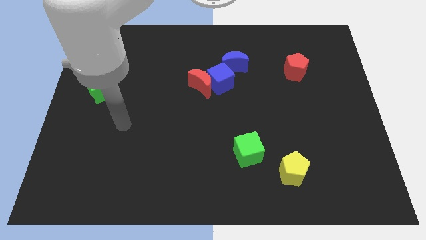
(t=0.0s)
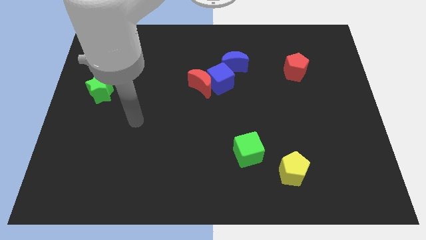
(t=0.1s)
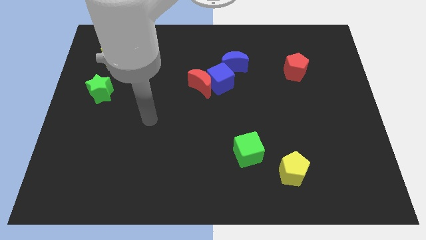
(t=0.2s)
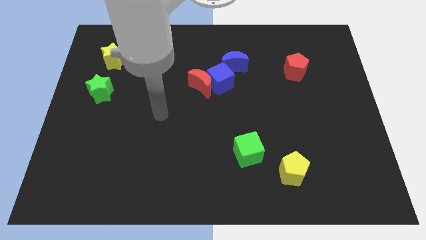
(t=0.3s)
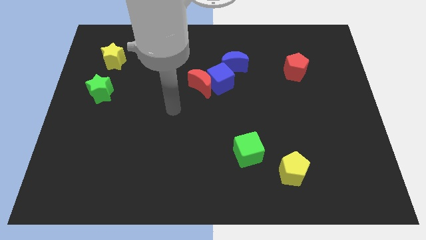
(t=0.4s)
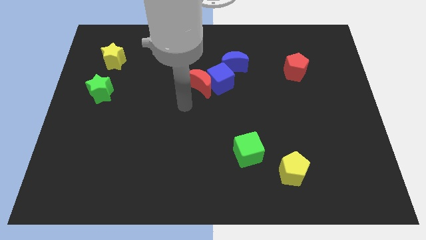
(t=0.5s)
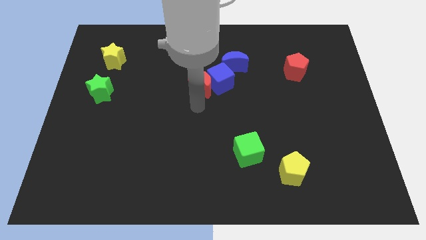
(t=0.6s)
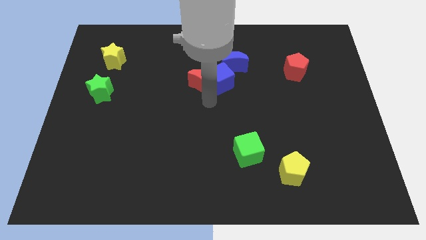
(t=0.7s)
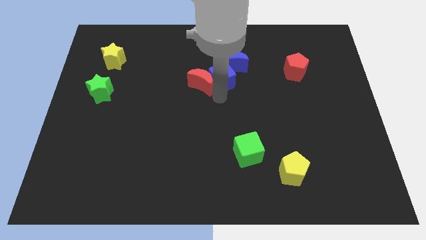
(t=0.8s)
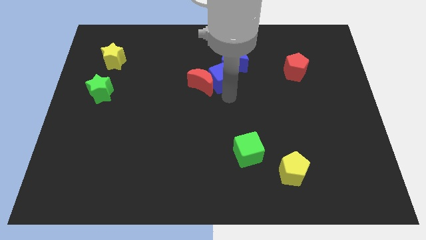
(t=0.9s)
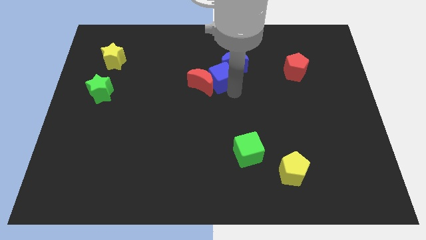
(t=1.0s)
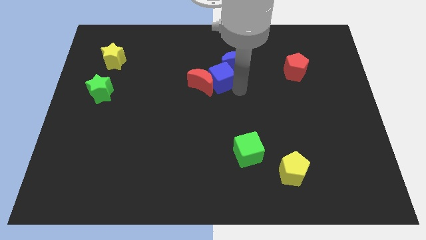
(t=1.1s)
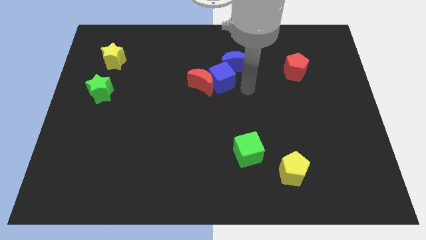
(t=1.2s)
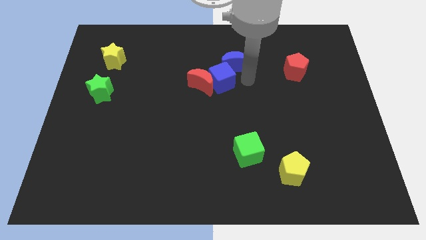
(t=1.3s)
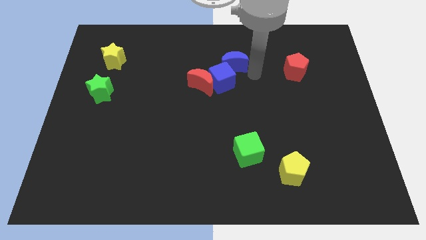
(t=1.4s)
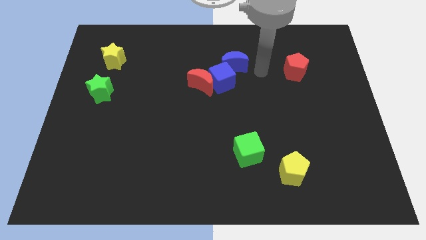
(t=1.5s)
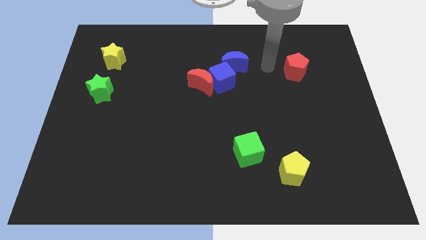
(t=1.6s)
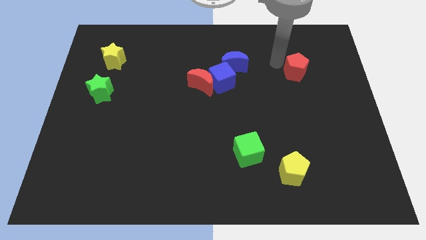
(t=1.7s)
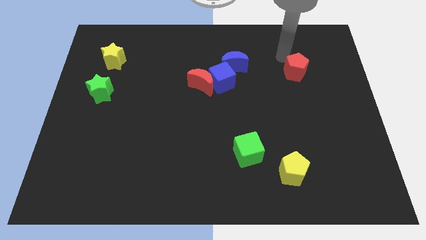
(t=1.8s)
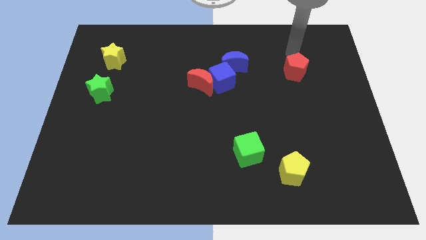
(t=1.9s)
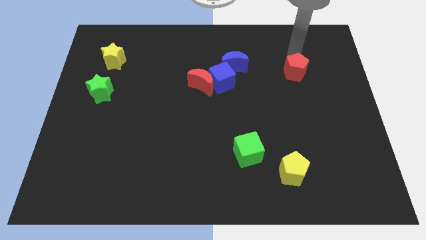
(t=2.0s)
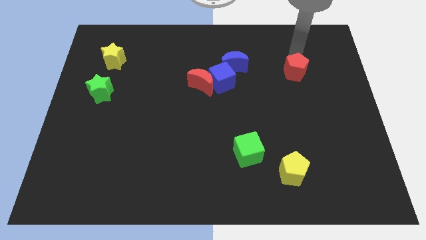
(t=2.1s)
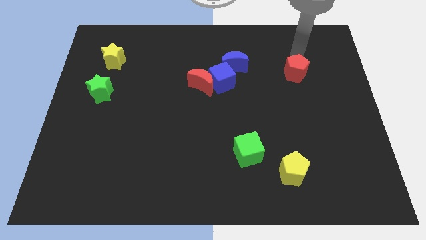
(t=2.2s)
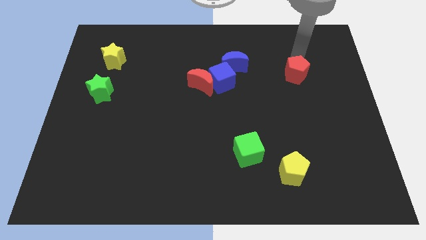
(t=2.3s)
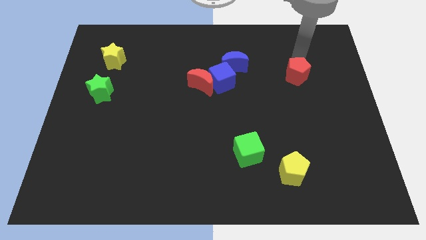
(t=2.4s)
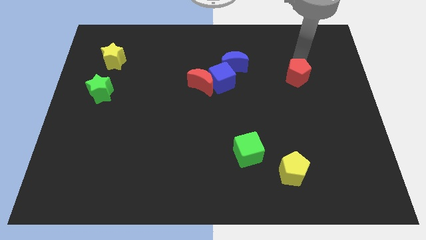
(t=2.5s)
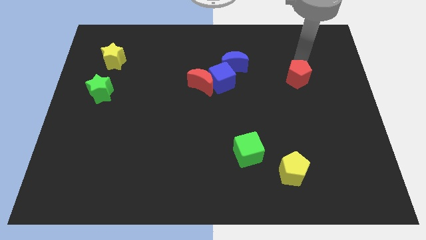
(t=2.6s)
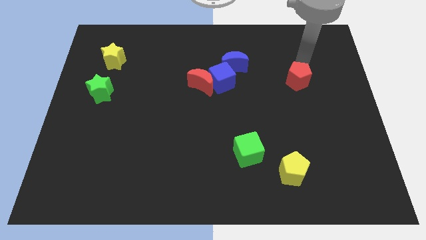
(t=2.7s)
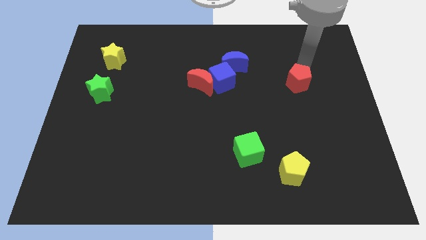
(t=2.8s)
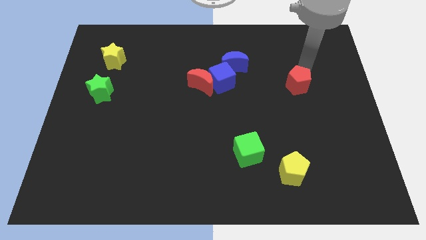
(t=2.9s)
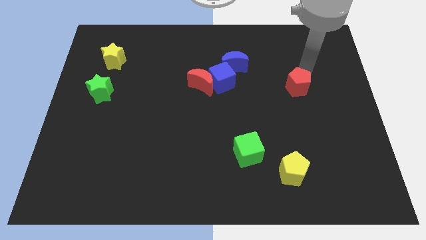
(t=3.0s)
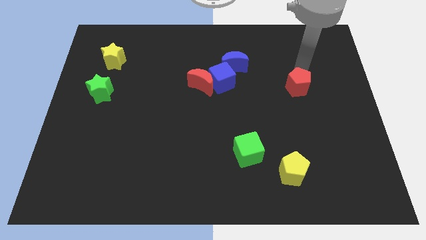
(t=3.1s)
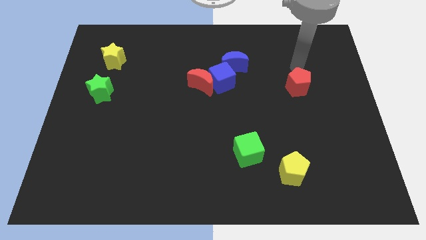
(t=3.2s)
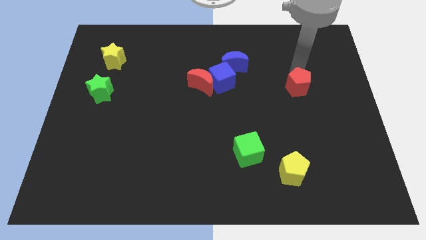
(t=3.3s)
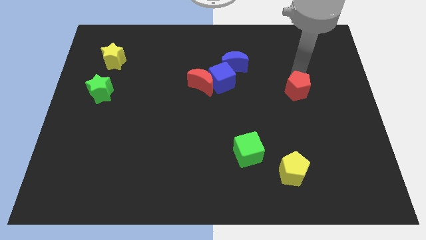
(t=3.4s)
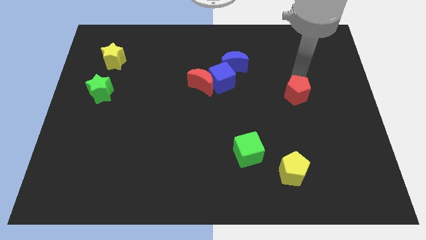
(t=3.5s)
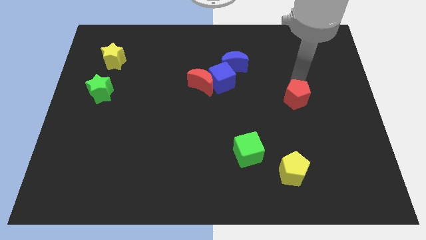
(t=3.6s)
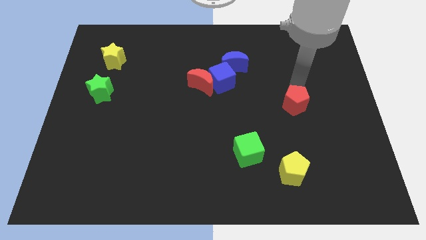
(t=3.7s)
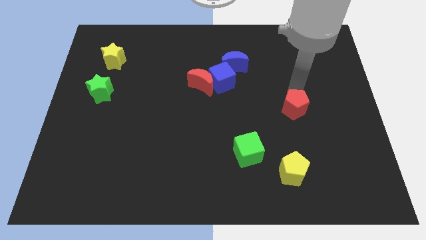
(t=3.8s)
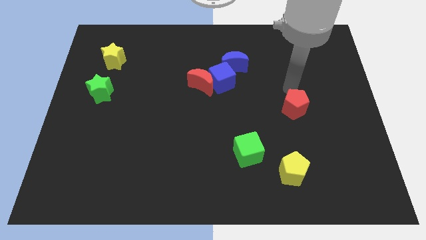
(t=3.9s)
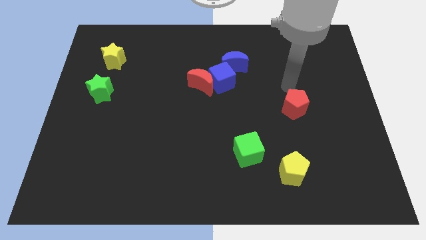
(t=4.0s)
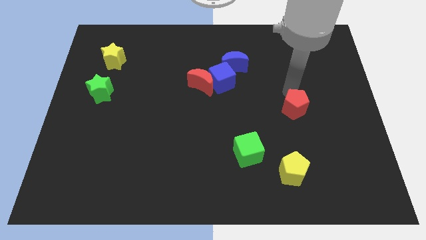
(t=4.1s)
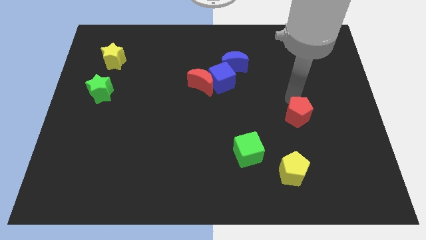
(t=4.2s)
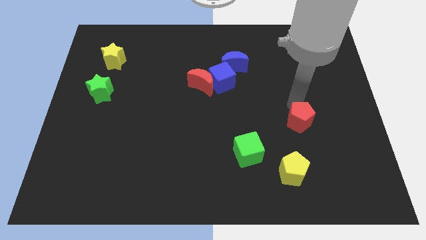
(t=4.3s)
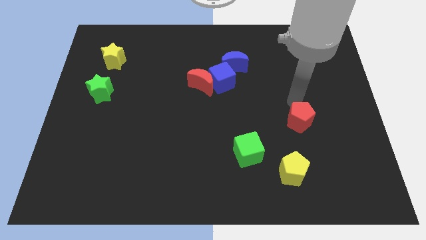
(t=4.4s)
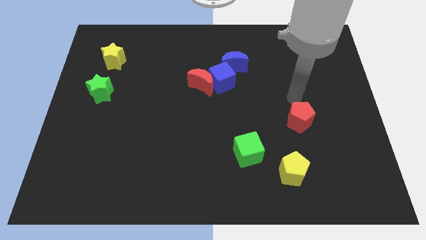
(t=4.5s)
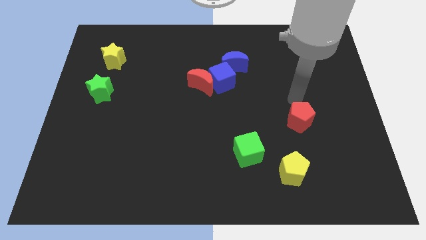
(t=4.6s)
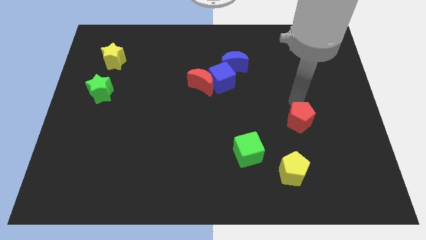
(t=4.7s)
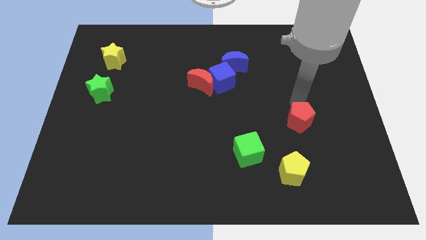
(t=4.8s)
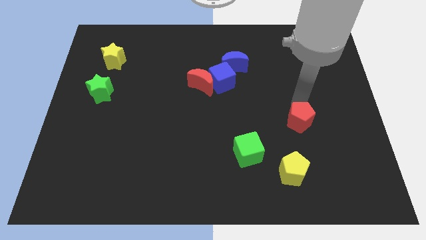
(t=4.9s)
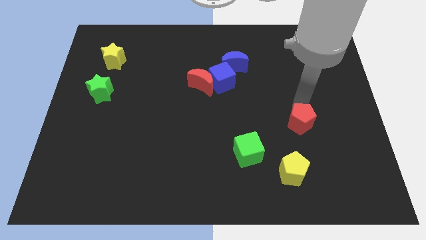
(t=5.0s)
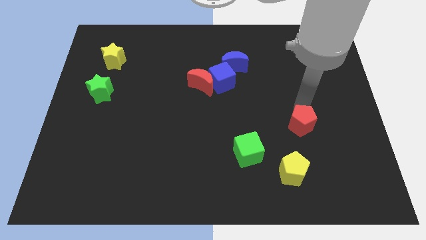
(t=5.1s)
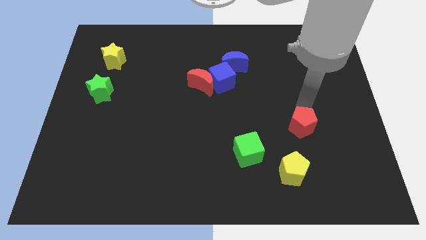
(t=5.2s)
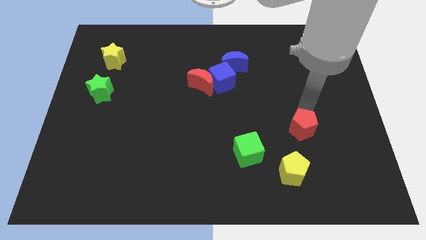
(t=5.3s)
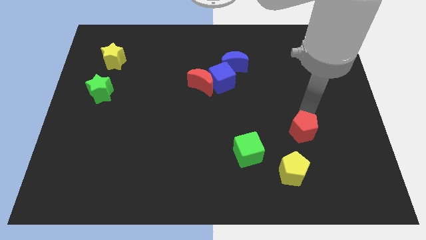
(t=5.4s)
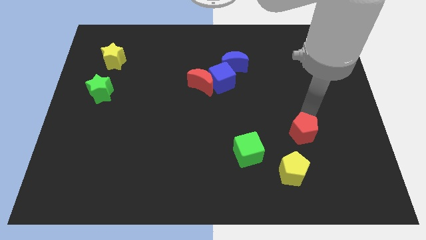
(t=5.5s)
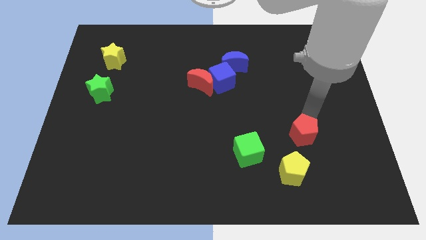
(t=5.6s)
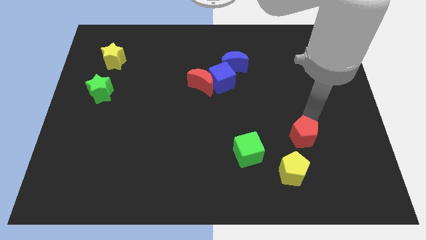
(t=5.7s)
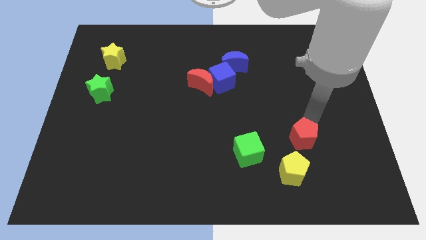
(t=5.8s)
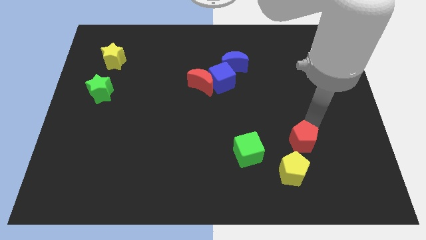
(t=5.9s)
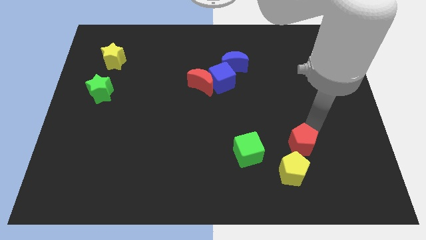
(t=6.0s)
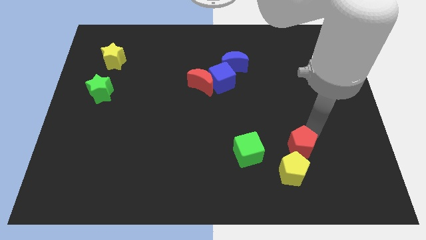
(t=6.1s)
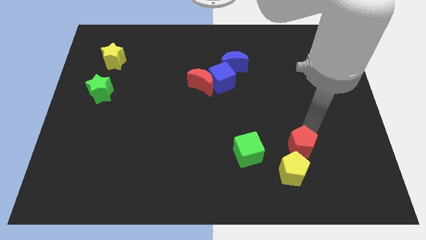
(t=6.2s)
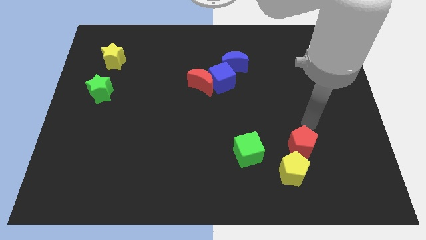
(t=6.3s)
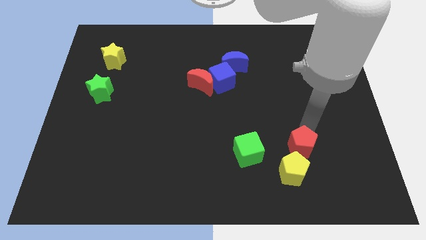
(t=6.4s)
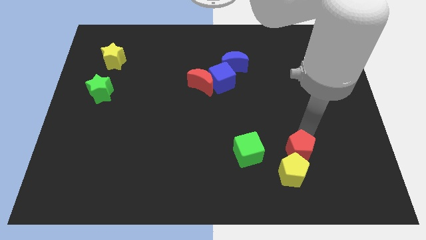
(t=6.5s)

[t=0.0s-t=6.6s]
move the red pentagon next to the yellow pentagon
